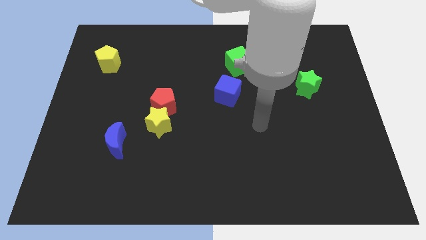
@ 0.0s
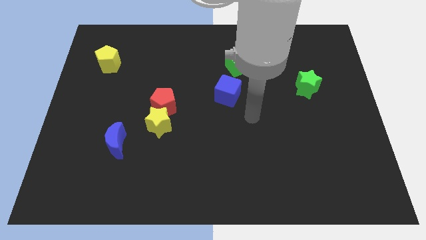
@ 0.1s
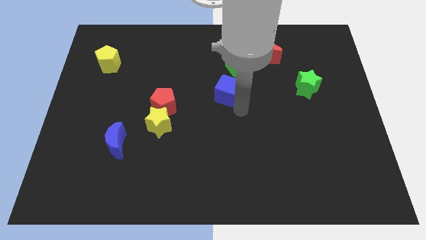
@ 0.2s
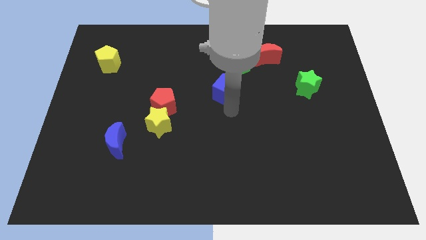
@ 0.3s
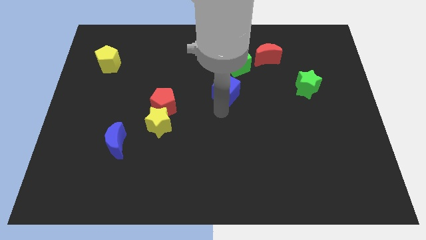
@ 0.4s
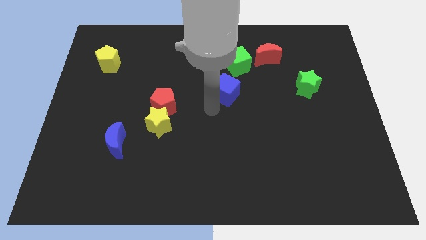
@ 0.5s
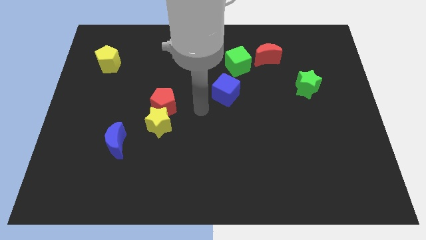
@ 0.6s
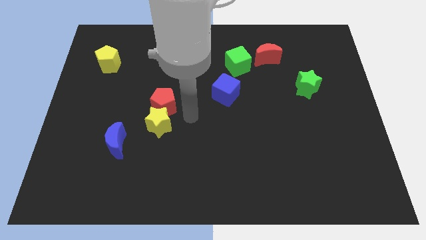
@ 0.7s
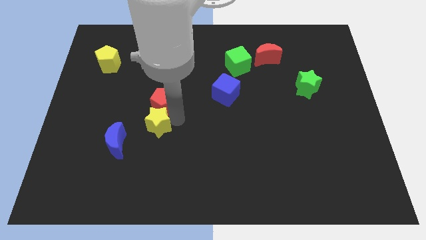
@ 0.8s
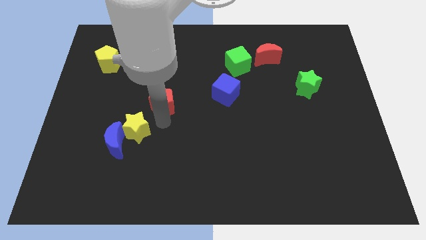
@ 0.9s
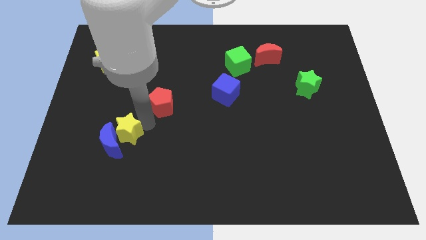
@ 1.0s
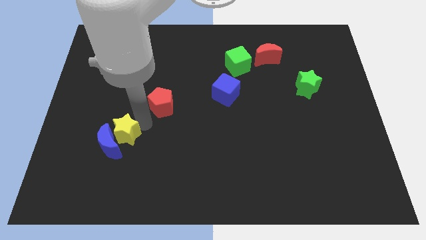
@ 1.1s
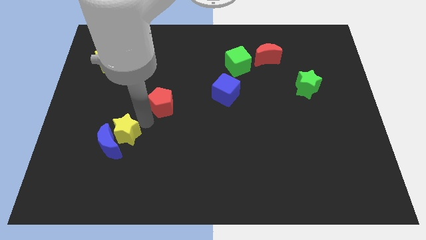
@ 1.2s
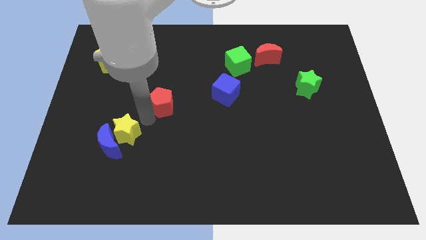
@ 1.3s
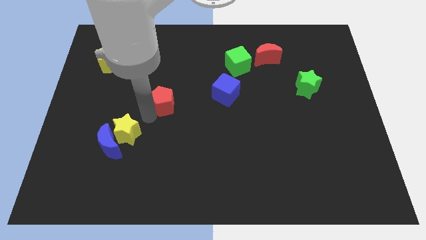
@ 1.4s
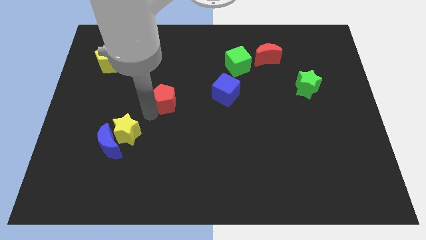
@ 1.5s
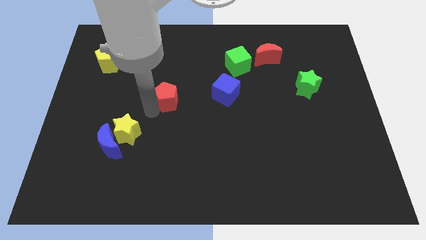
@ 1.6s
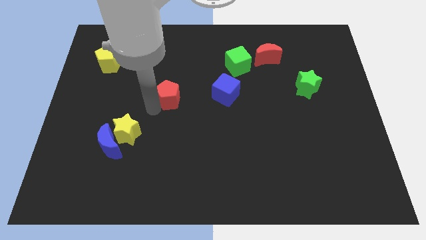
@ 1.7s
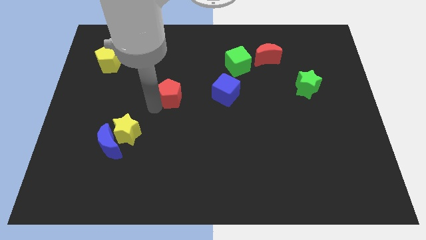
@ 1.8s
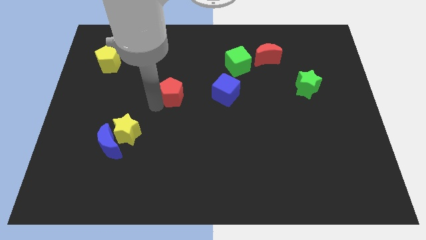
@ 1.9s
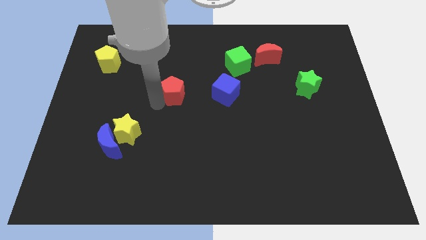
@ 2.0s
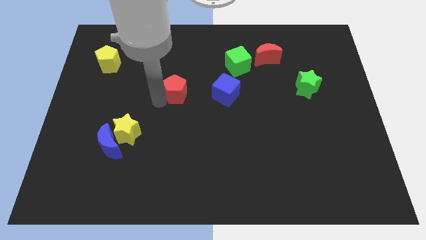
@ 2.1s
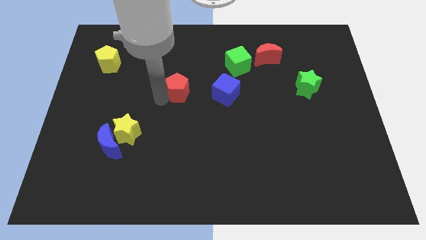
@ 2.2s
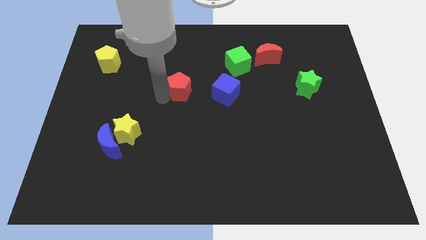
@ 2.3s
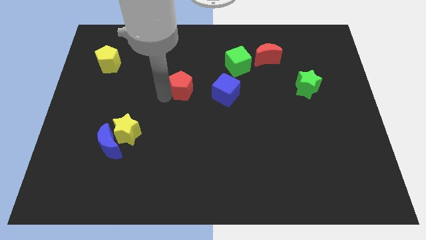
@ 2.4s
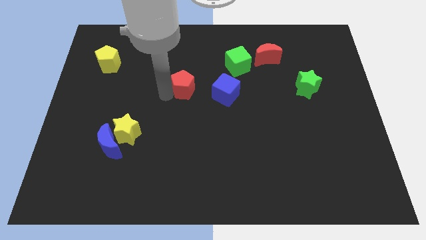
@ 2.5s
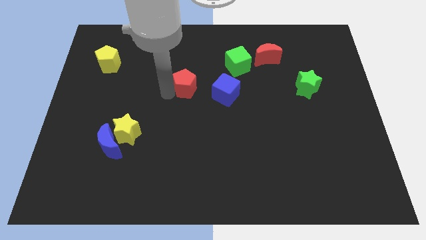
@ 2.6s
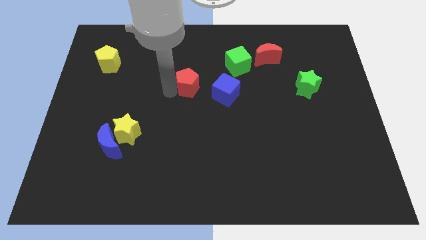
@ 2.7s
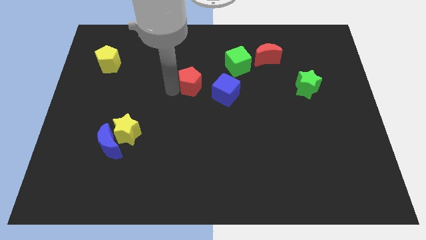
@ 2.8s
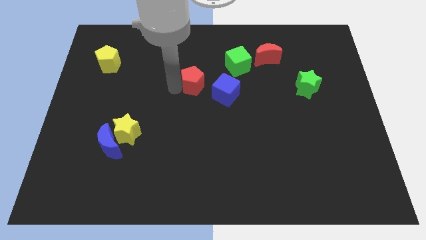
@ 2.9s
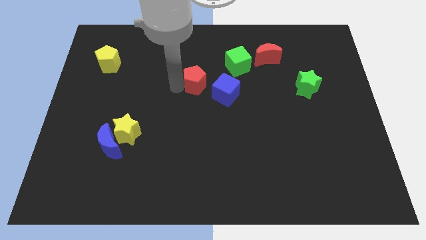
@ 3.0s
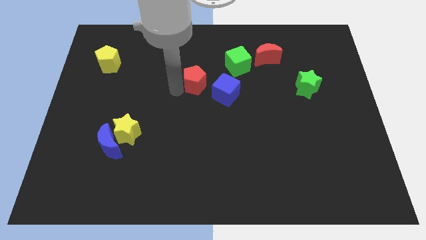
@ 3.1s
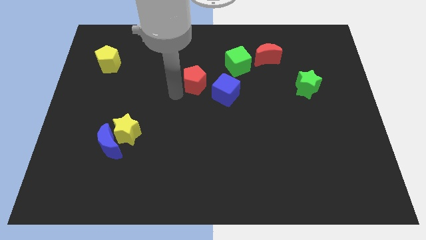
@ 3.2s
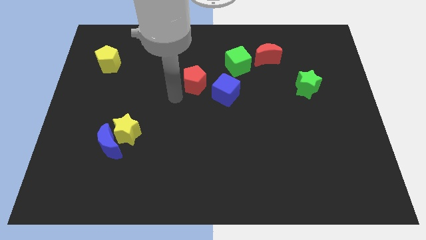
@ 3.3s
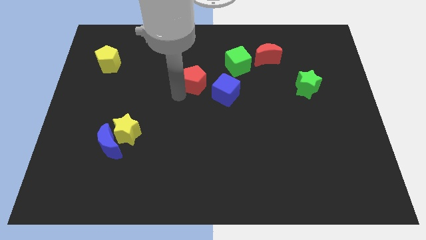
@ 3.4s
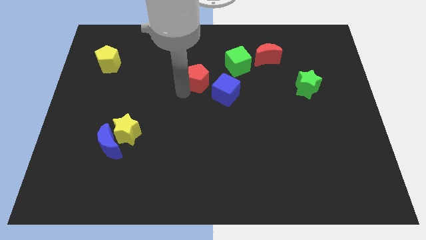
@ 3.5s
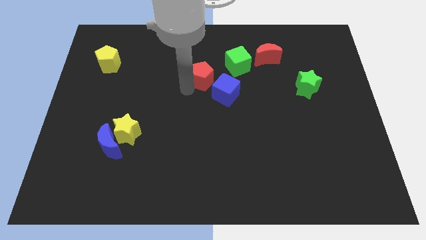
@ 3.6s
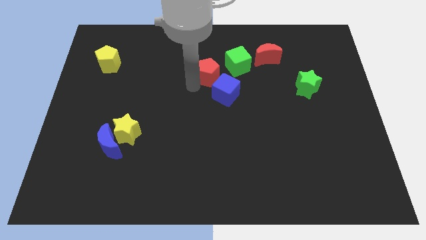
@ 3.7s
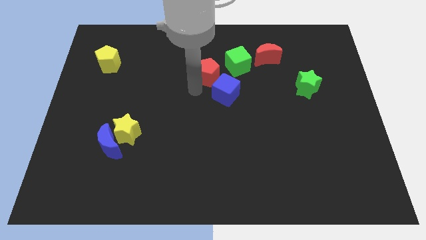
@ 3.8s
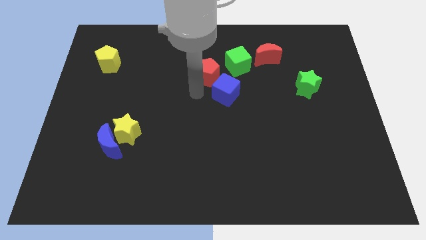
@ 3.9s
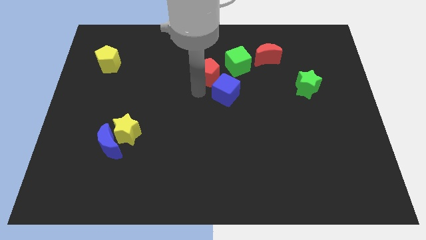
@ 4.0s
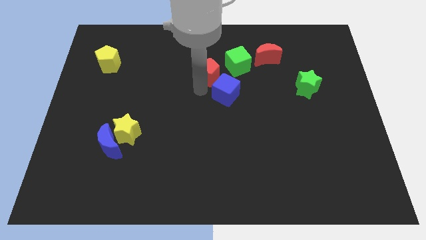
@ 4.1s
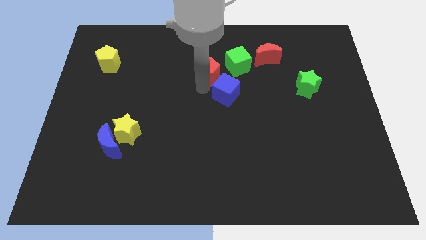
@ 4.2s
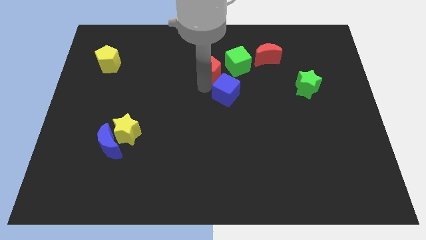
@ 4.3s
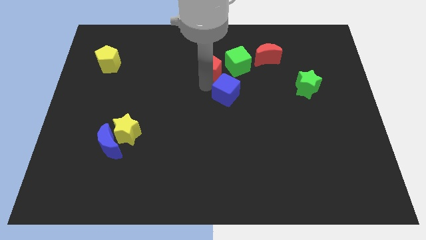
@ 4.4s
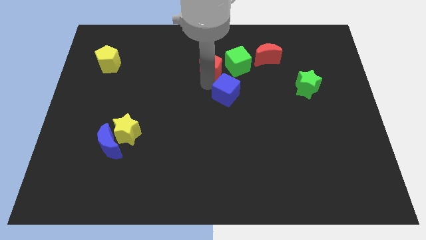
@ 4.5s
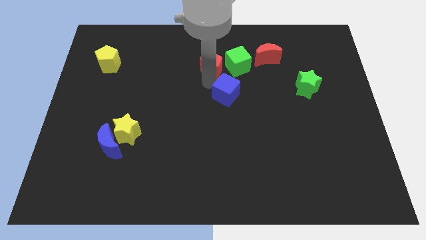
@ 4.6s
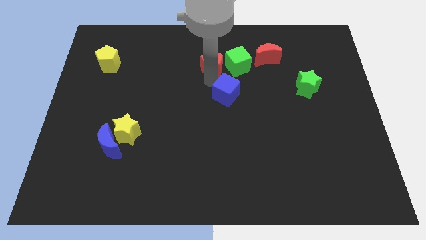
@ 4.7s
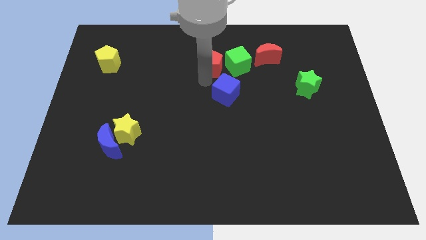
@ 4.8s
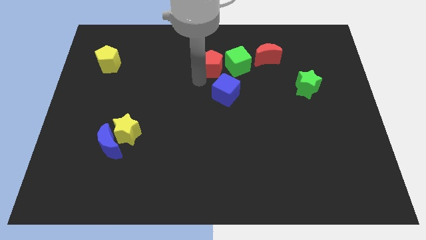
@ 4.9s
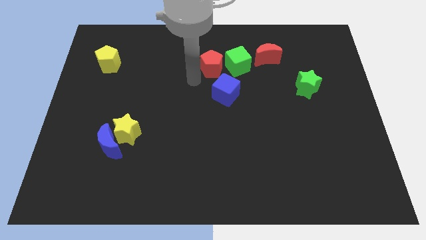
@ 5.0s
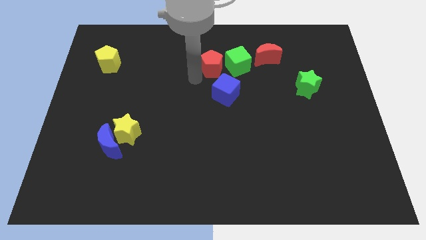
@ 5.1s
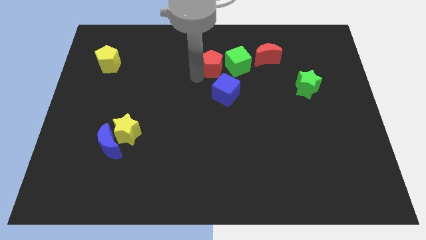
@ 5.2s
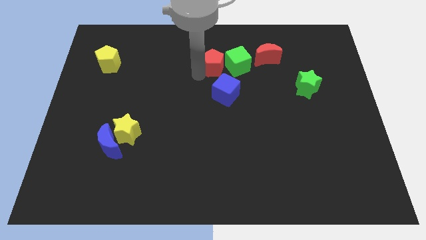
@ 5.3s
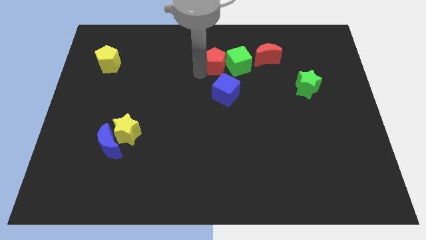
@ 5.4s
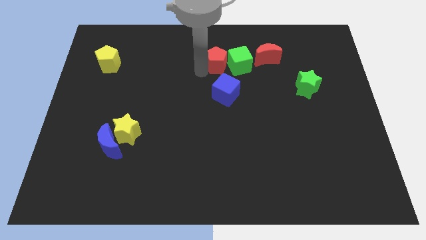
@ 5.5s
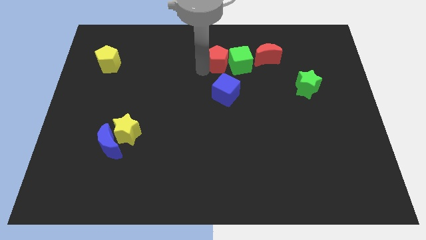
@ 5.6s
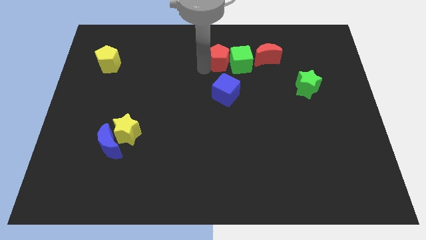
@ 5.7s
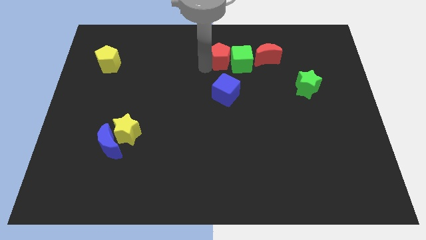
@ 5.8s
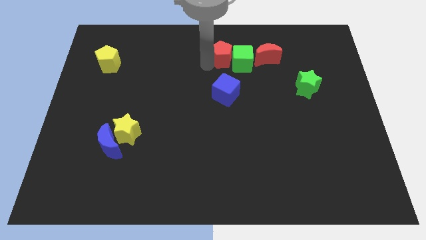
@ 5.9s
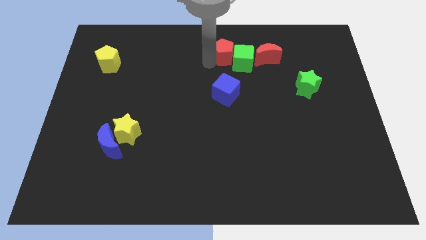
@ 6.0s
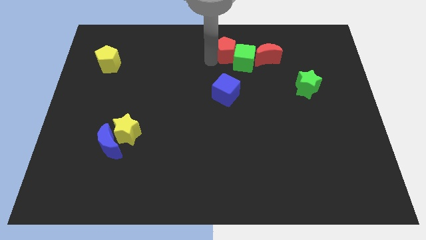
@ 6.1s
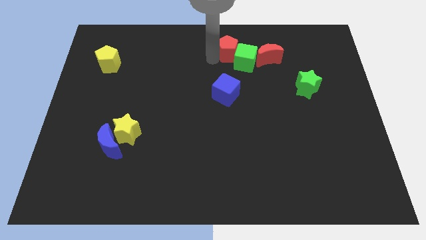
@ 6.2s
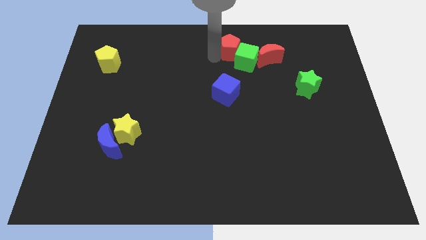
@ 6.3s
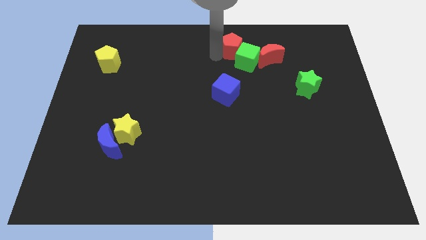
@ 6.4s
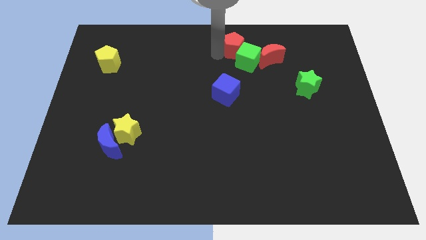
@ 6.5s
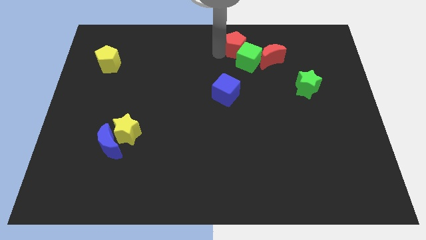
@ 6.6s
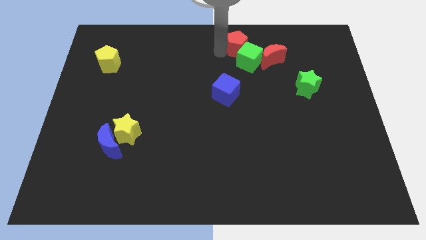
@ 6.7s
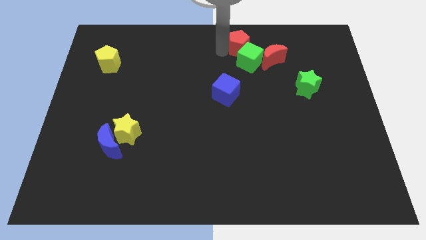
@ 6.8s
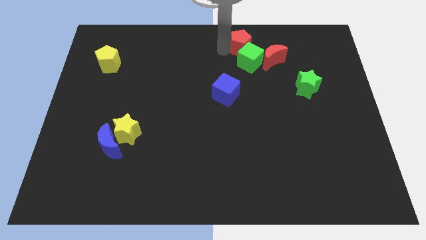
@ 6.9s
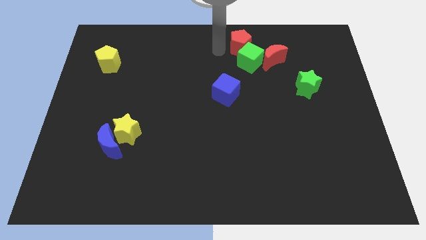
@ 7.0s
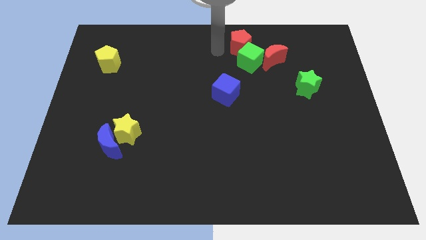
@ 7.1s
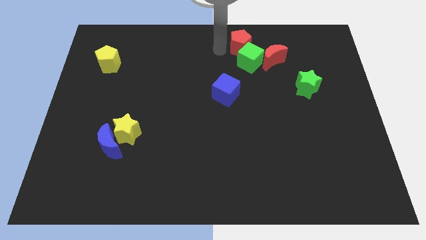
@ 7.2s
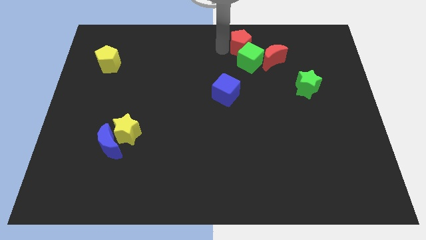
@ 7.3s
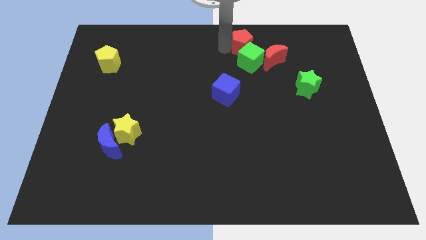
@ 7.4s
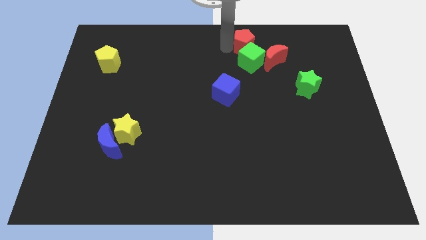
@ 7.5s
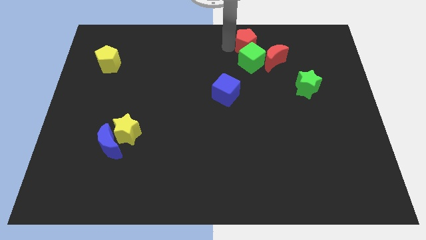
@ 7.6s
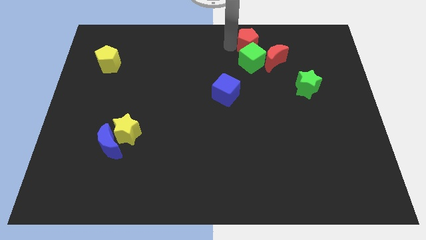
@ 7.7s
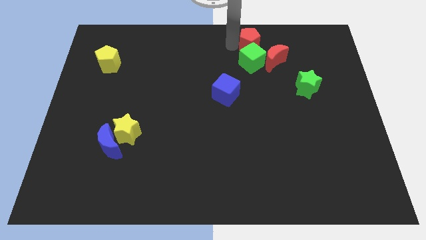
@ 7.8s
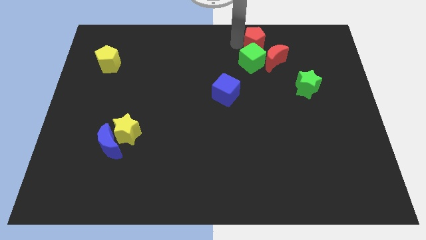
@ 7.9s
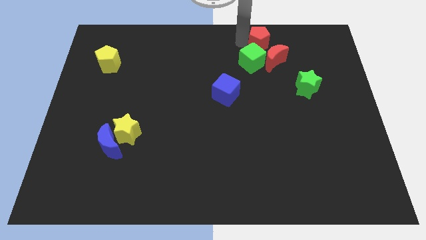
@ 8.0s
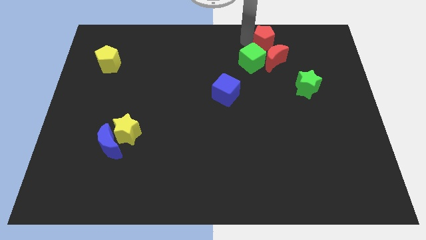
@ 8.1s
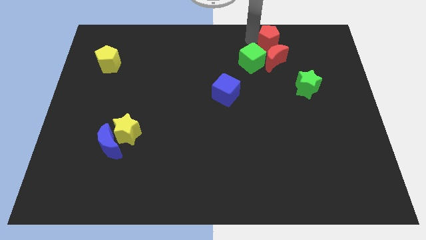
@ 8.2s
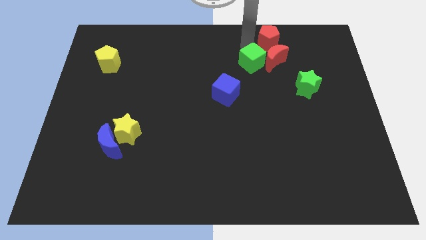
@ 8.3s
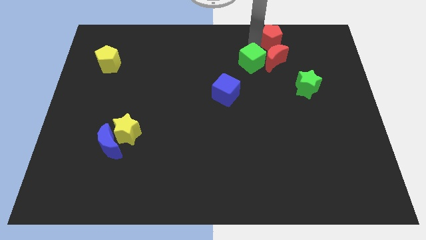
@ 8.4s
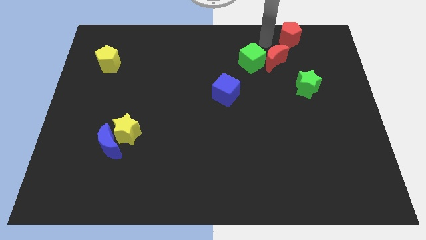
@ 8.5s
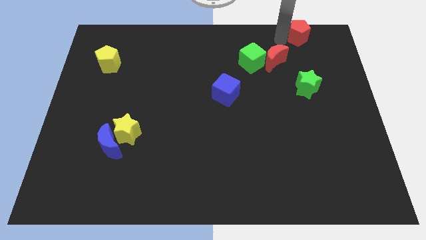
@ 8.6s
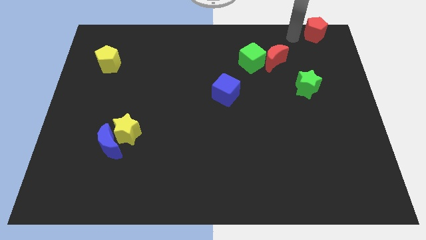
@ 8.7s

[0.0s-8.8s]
put the red pentagon to the upper right corner
